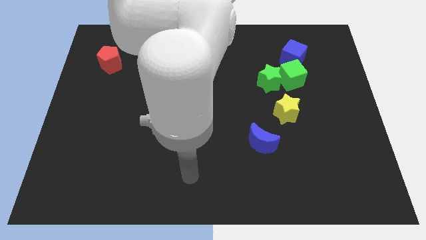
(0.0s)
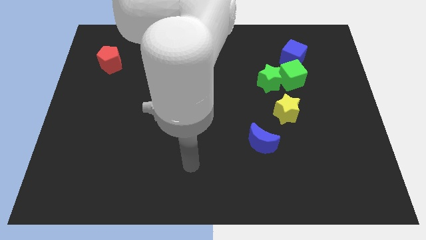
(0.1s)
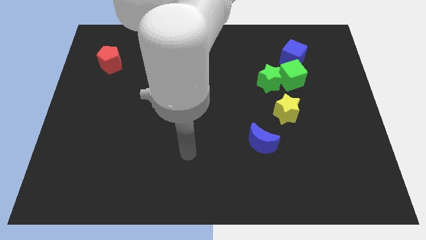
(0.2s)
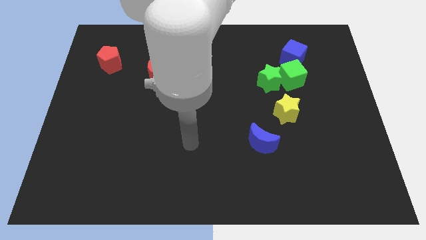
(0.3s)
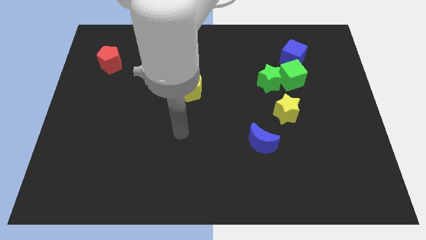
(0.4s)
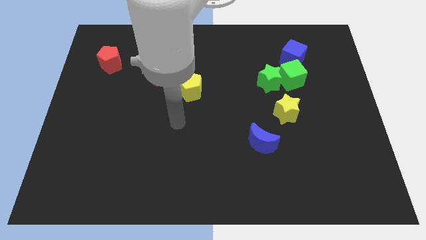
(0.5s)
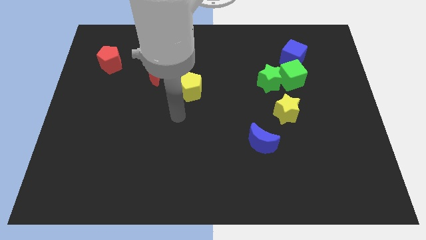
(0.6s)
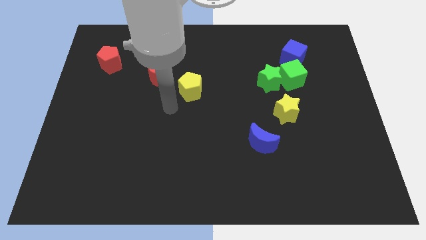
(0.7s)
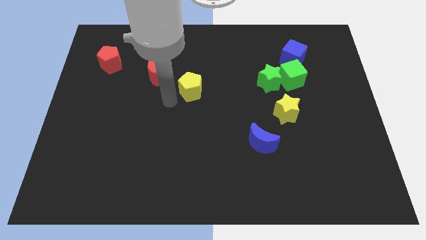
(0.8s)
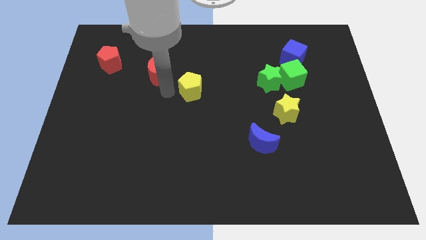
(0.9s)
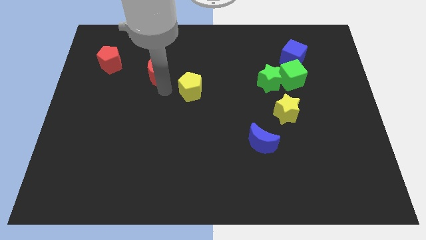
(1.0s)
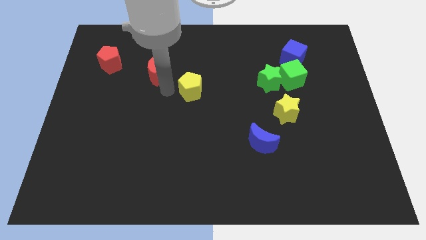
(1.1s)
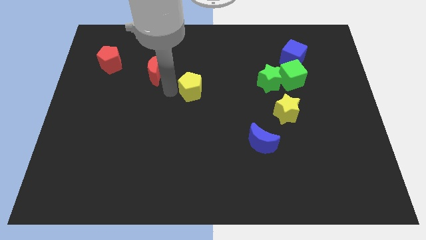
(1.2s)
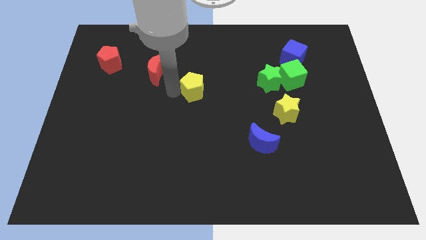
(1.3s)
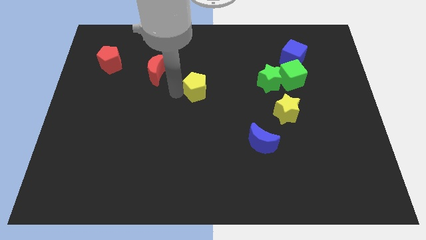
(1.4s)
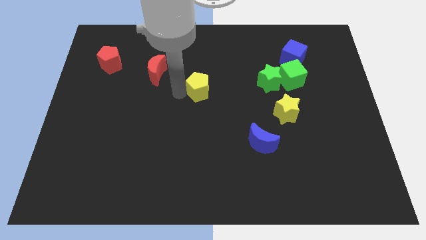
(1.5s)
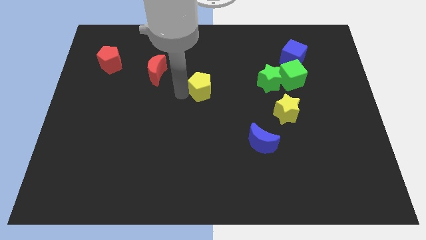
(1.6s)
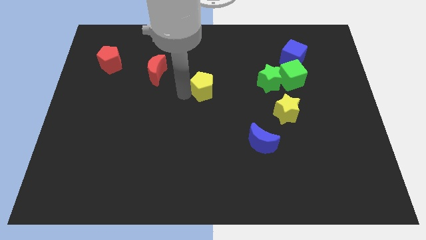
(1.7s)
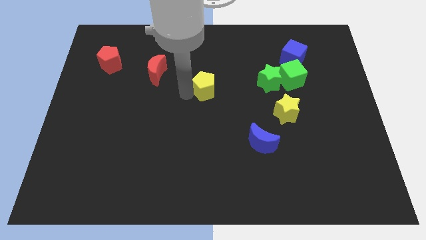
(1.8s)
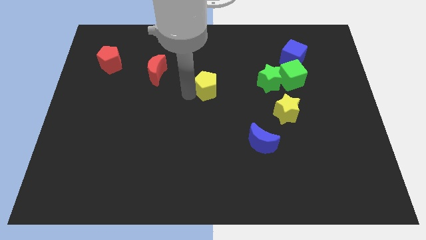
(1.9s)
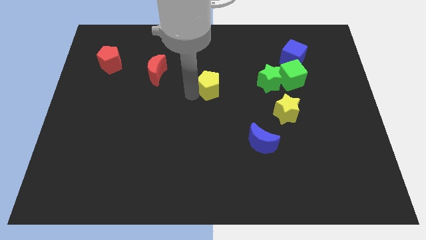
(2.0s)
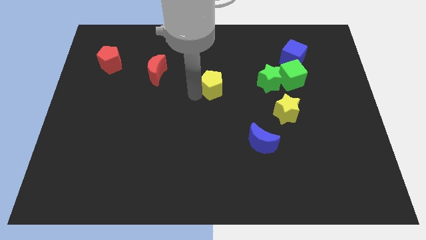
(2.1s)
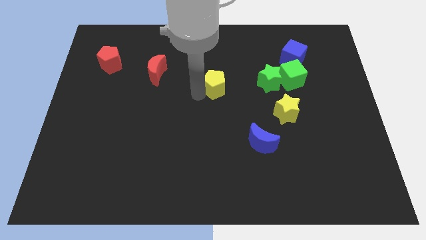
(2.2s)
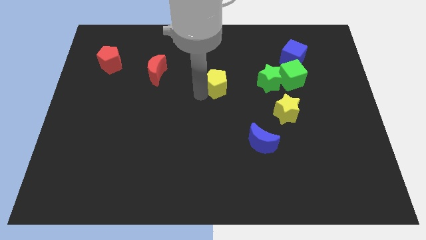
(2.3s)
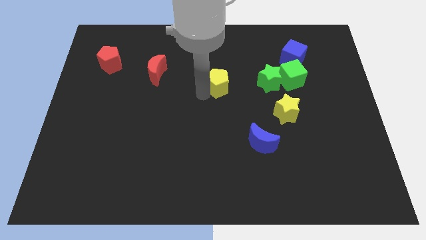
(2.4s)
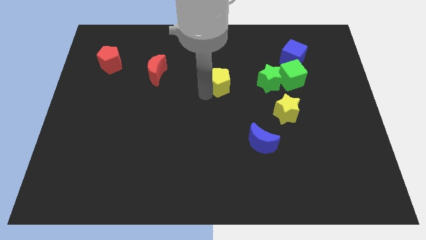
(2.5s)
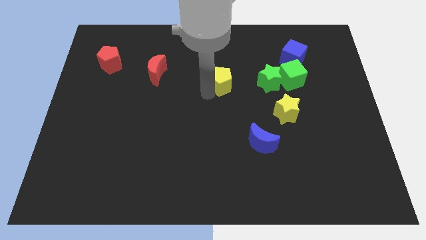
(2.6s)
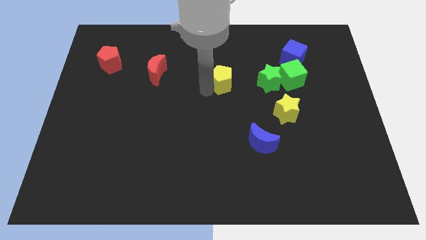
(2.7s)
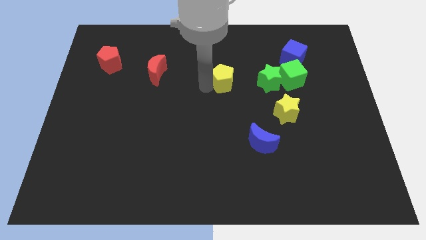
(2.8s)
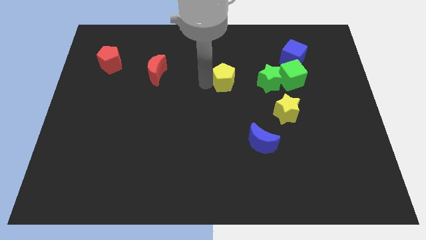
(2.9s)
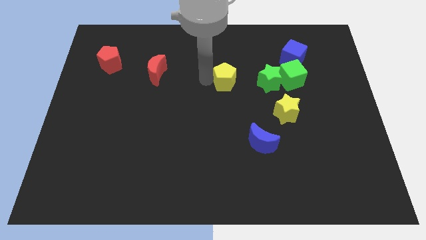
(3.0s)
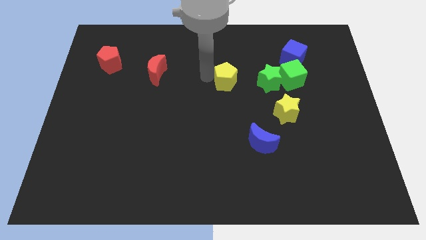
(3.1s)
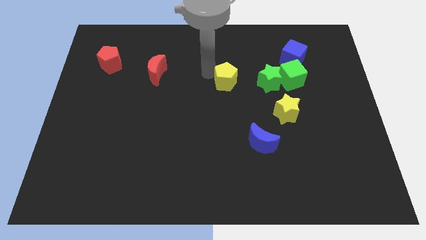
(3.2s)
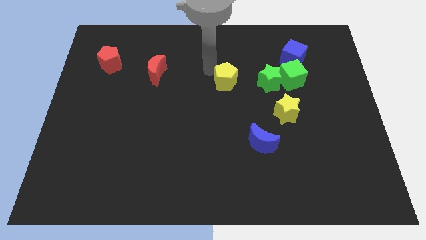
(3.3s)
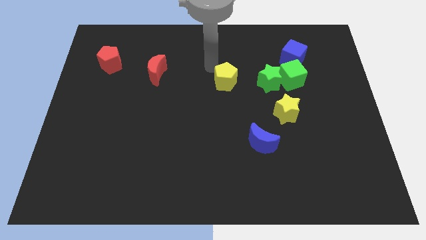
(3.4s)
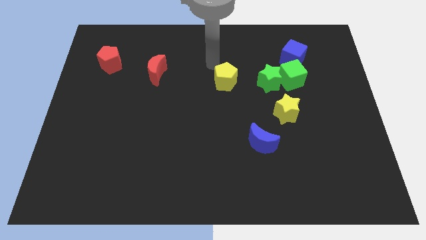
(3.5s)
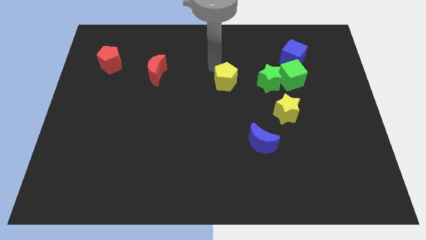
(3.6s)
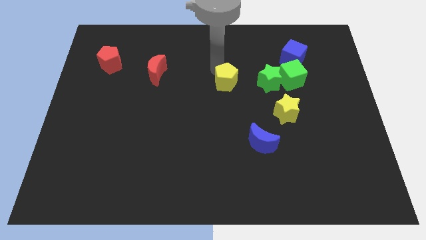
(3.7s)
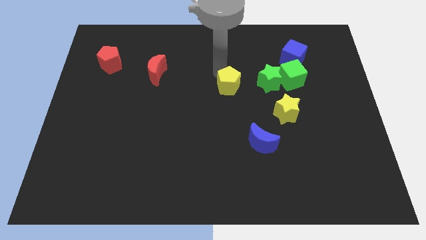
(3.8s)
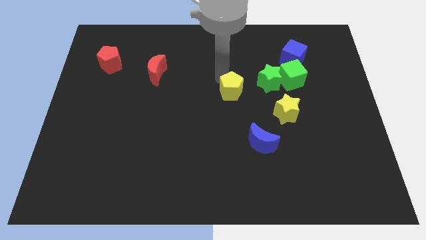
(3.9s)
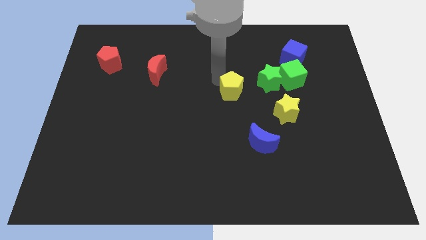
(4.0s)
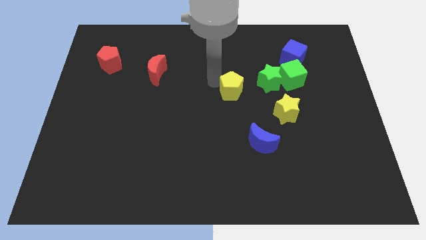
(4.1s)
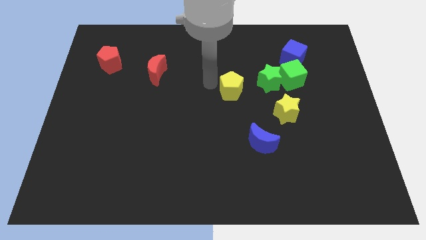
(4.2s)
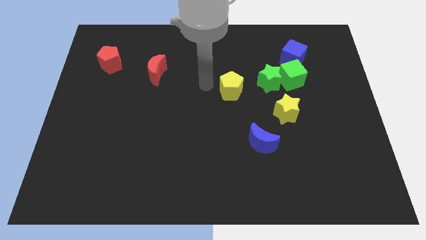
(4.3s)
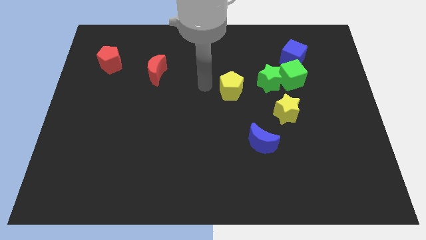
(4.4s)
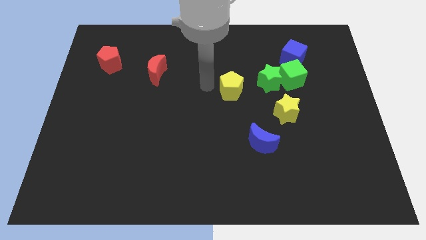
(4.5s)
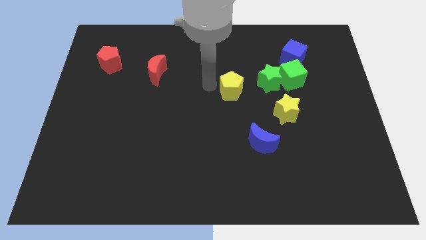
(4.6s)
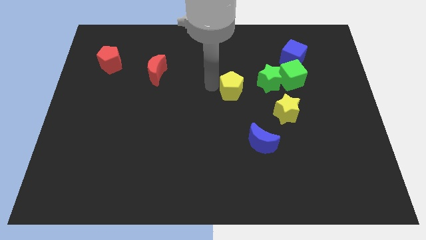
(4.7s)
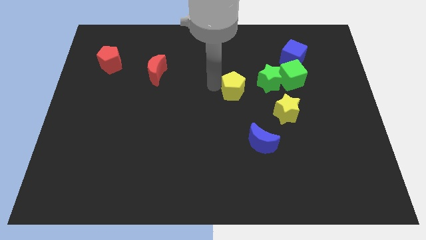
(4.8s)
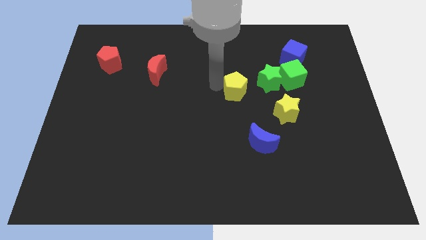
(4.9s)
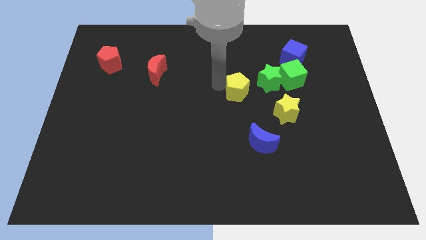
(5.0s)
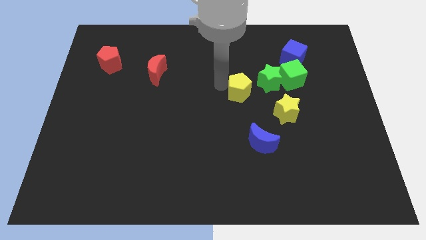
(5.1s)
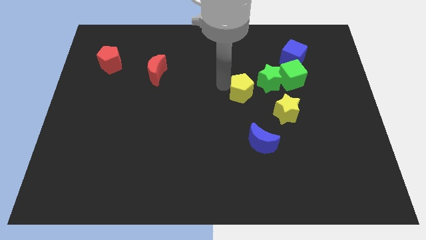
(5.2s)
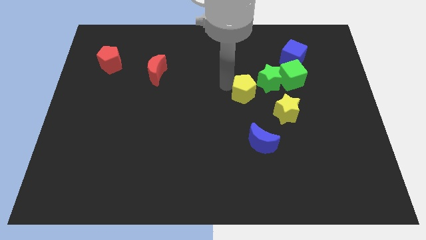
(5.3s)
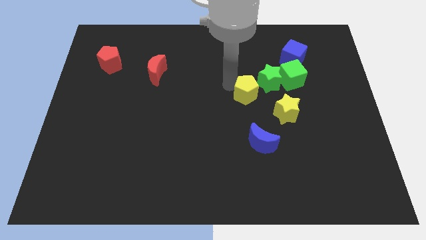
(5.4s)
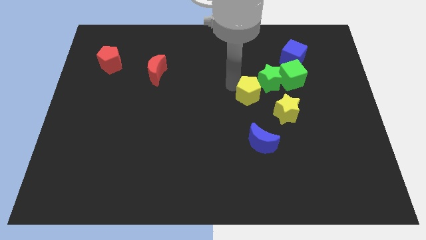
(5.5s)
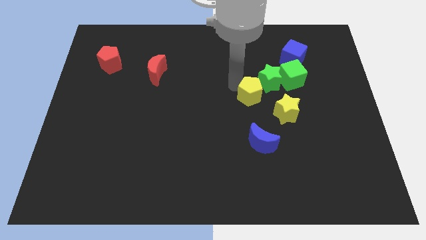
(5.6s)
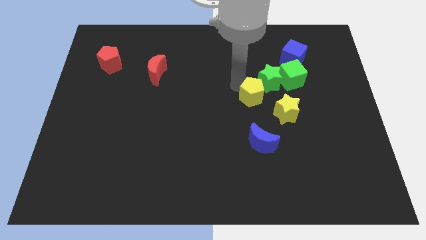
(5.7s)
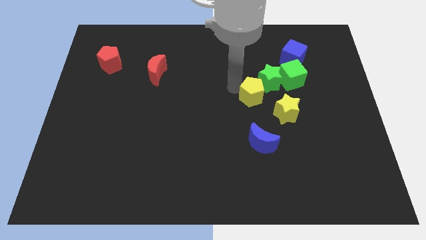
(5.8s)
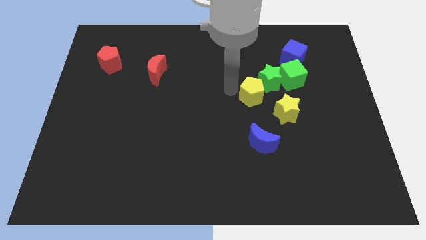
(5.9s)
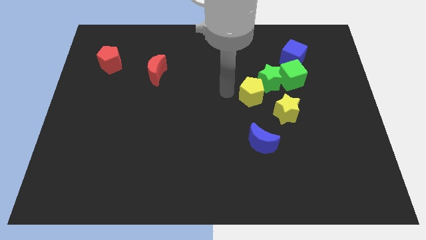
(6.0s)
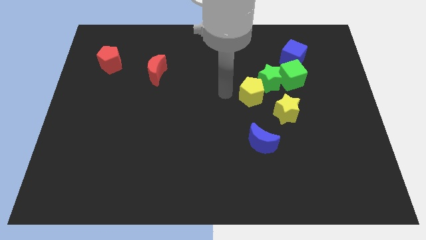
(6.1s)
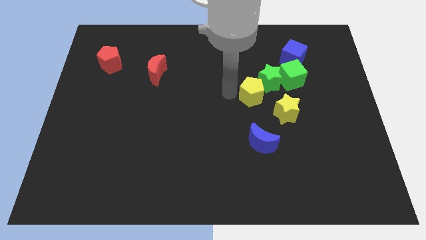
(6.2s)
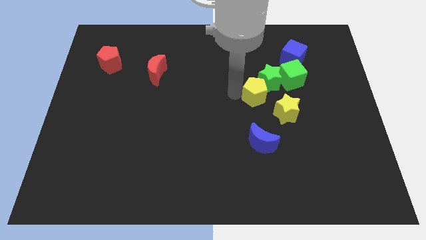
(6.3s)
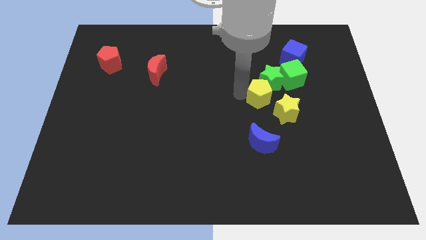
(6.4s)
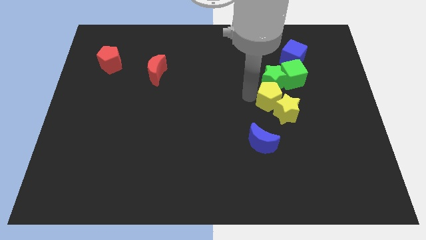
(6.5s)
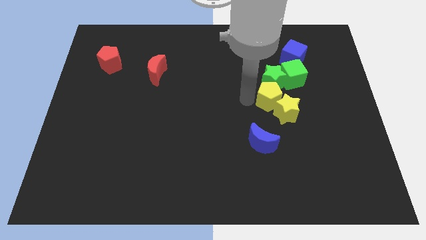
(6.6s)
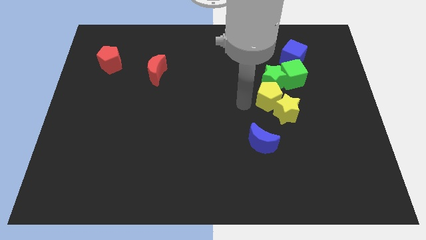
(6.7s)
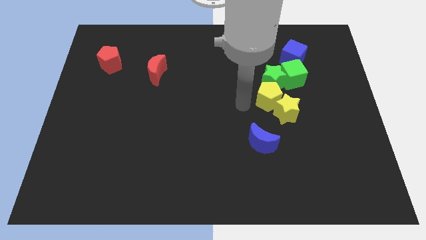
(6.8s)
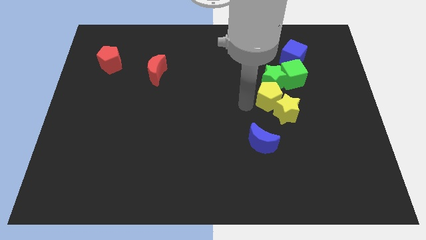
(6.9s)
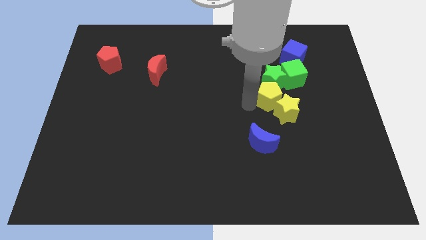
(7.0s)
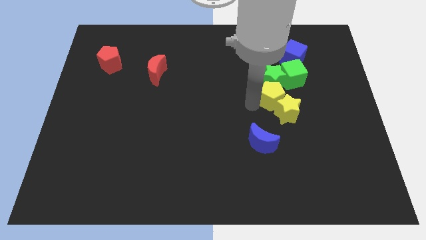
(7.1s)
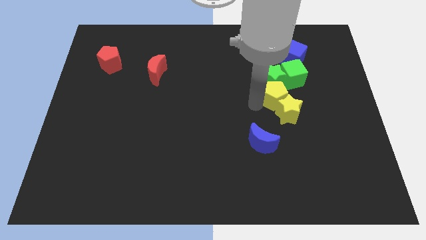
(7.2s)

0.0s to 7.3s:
move the yellow pentagon right

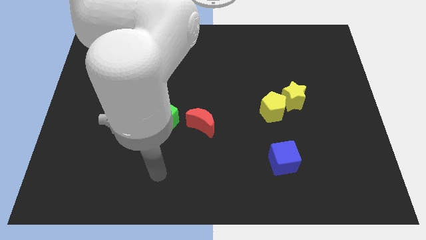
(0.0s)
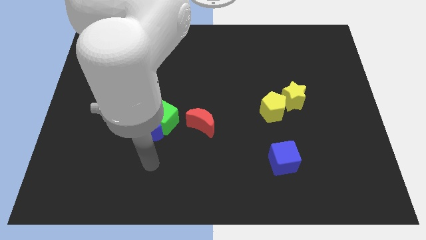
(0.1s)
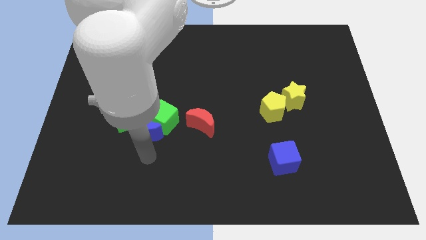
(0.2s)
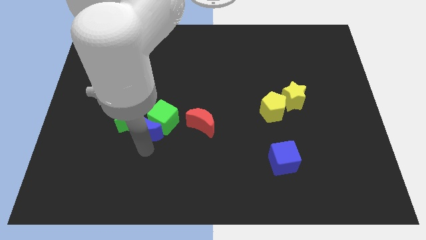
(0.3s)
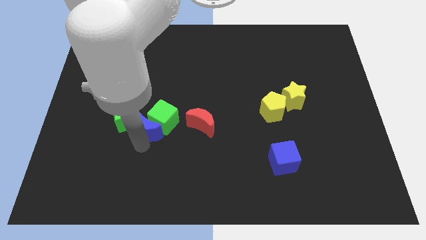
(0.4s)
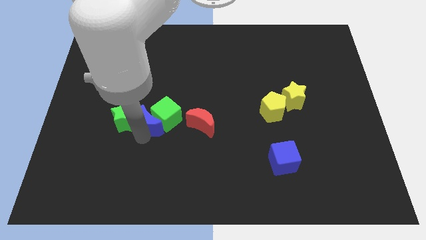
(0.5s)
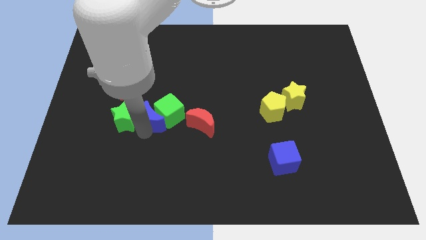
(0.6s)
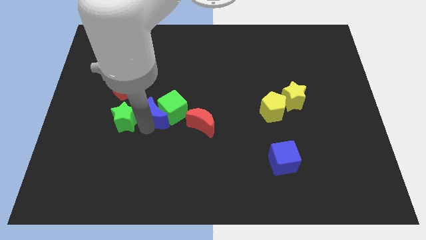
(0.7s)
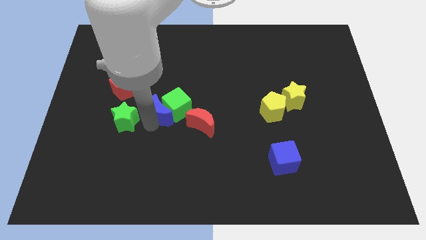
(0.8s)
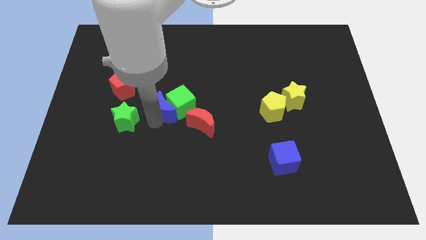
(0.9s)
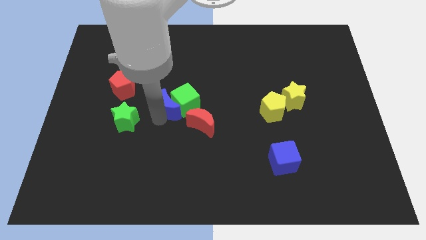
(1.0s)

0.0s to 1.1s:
move the green cube diagonally upwards and right a little
